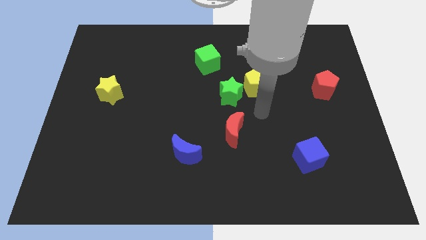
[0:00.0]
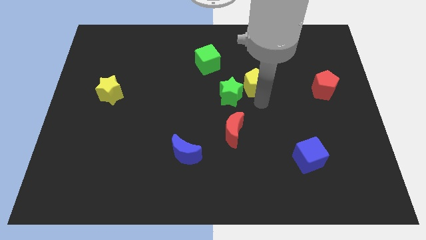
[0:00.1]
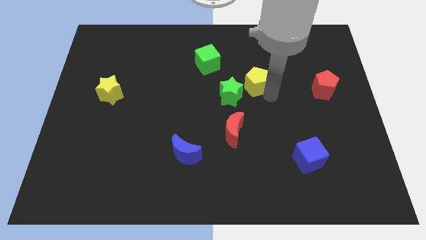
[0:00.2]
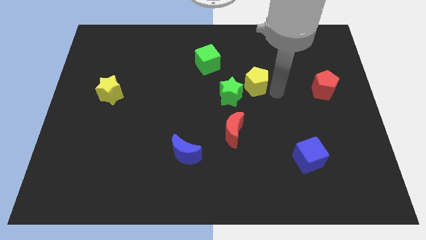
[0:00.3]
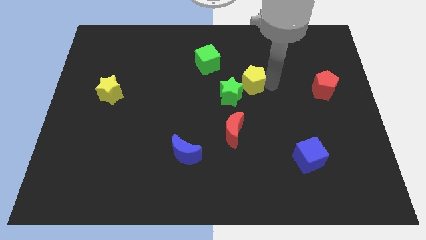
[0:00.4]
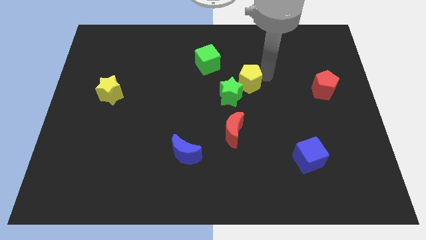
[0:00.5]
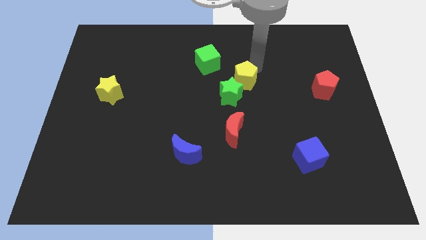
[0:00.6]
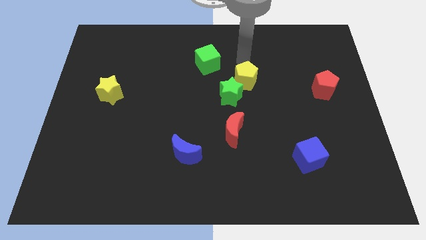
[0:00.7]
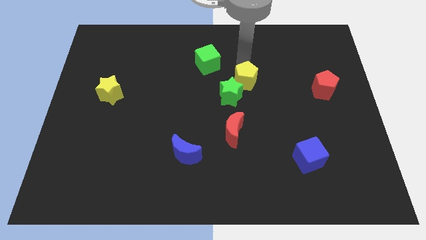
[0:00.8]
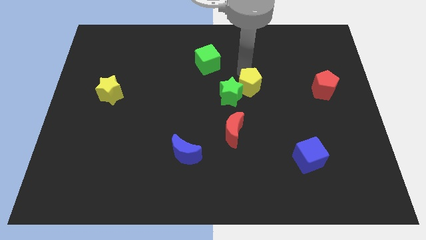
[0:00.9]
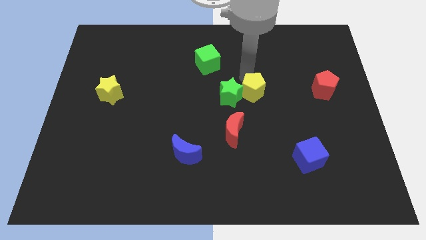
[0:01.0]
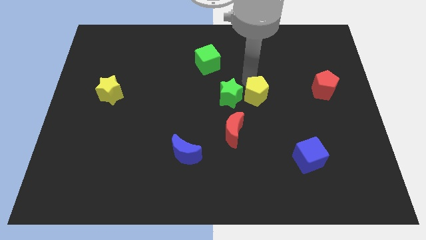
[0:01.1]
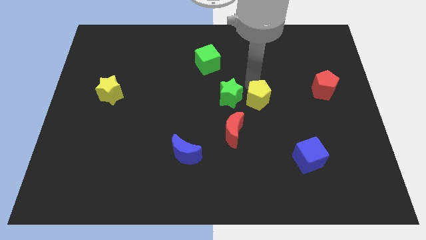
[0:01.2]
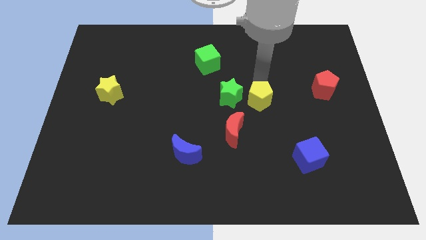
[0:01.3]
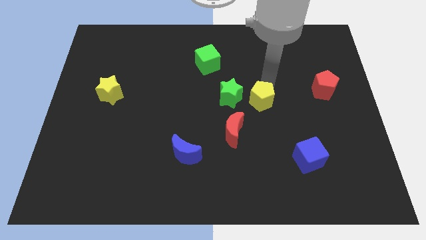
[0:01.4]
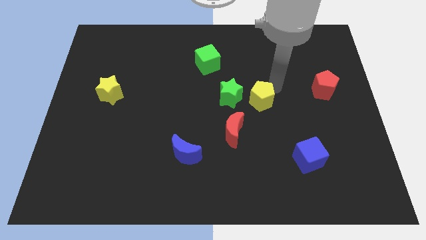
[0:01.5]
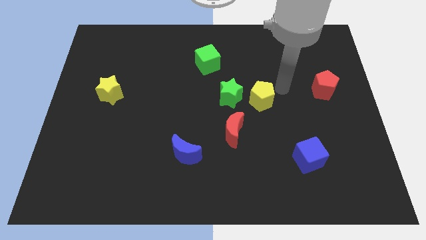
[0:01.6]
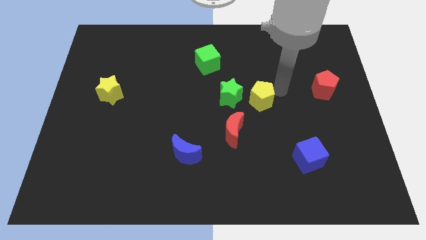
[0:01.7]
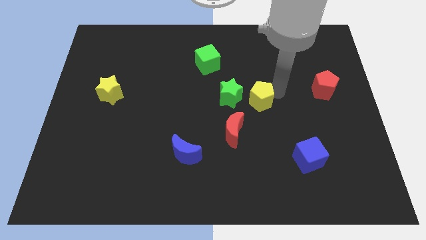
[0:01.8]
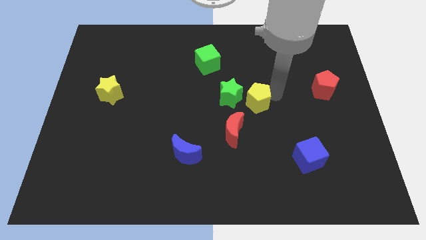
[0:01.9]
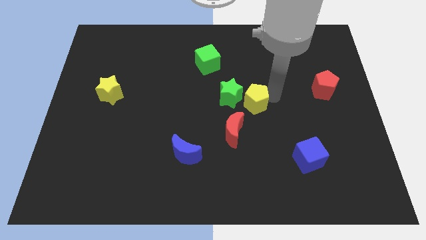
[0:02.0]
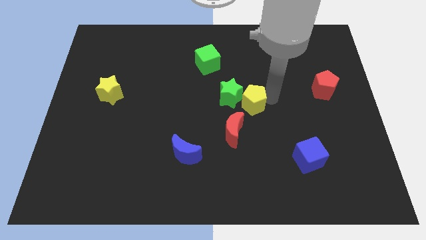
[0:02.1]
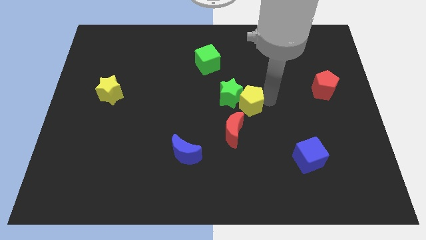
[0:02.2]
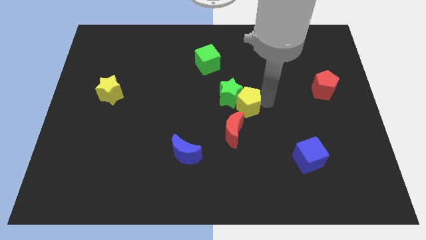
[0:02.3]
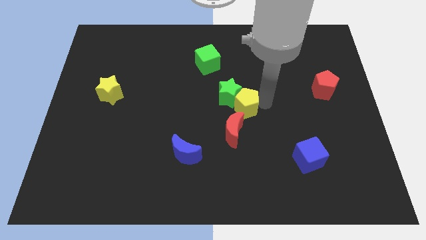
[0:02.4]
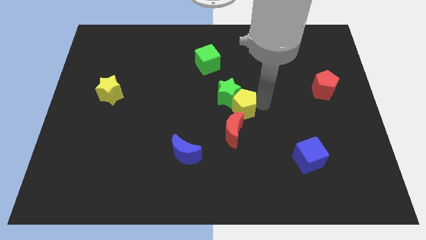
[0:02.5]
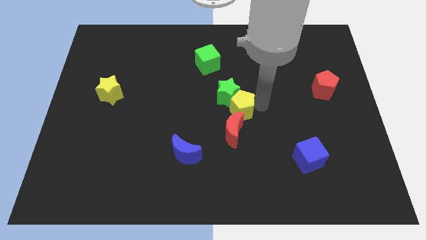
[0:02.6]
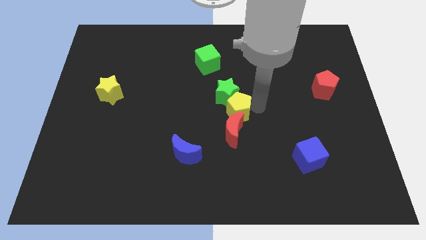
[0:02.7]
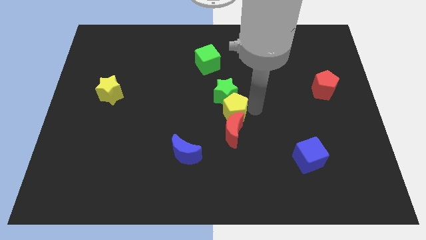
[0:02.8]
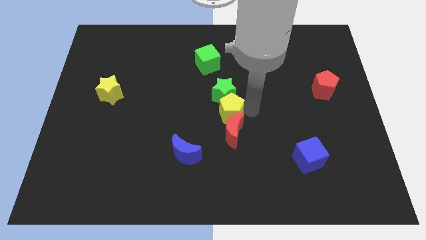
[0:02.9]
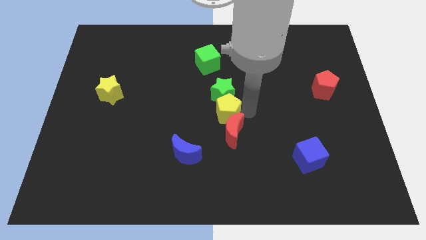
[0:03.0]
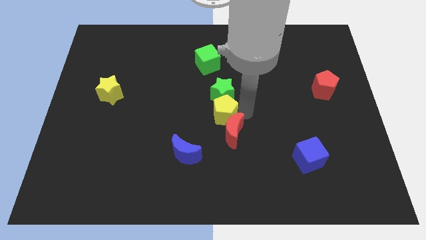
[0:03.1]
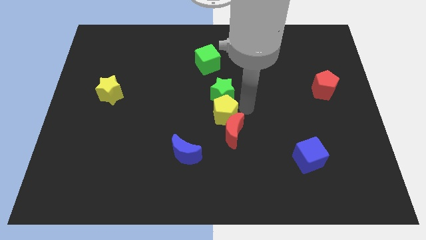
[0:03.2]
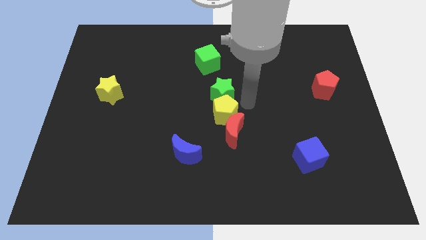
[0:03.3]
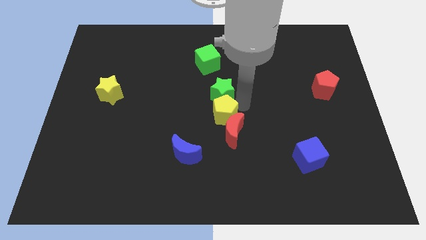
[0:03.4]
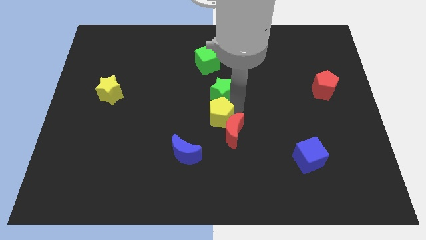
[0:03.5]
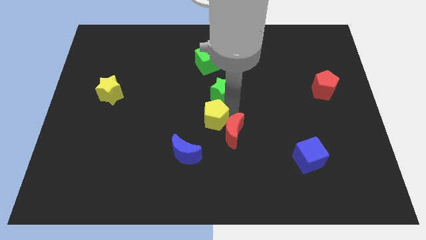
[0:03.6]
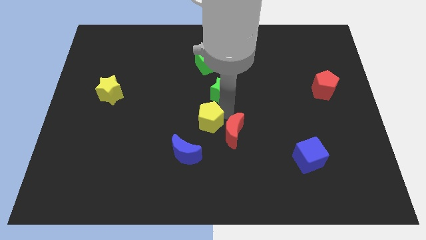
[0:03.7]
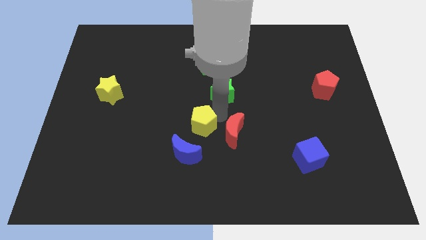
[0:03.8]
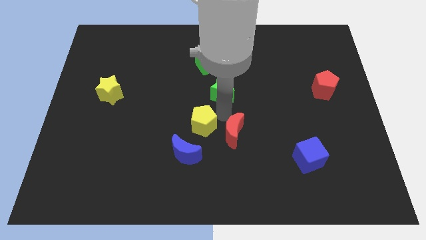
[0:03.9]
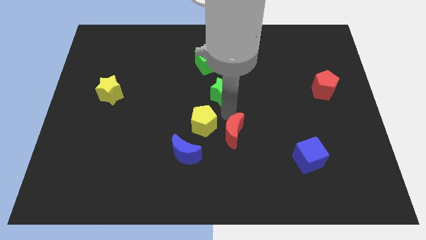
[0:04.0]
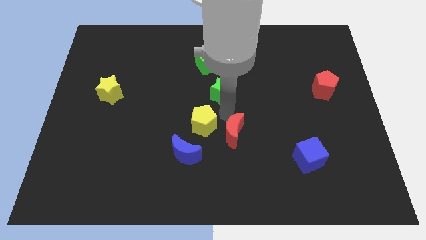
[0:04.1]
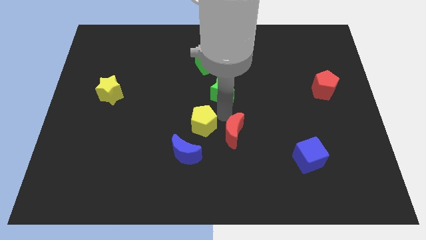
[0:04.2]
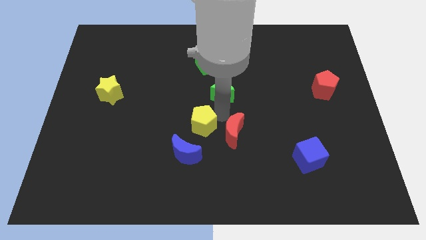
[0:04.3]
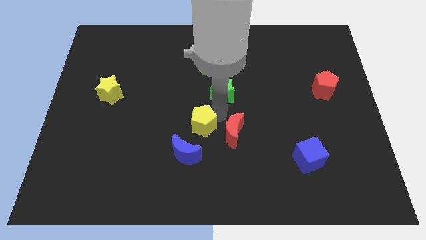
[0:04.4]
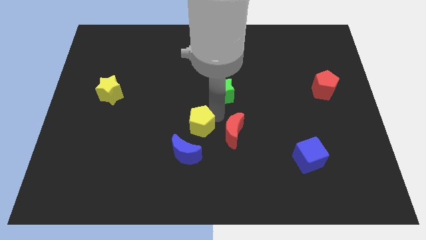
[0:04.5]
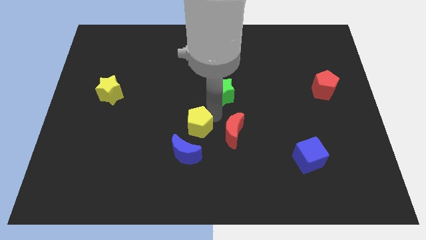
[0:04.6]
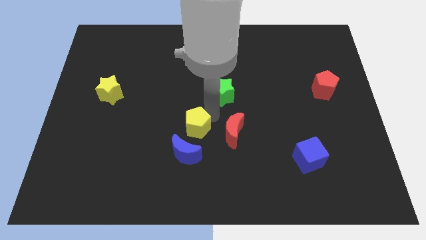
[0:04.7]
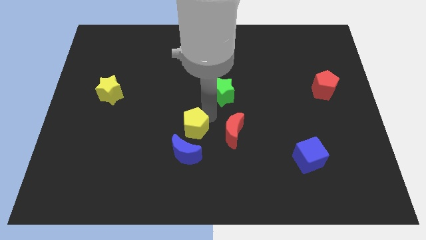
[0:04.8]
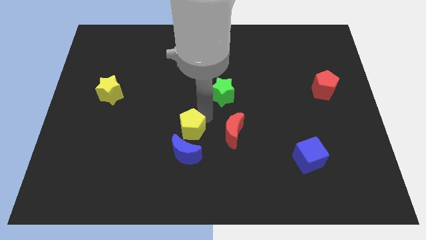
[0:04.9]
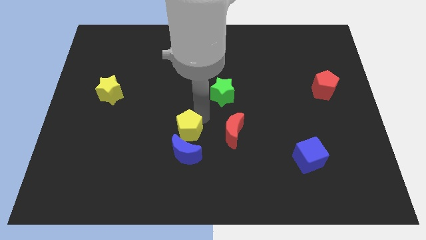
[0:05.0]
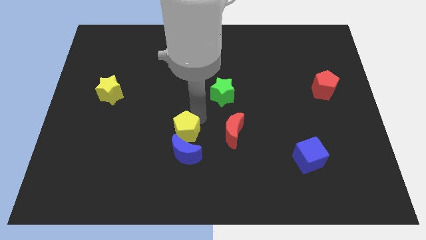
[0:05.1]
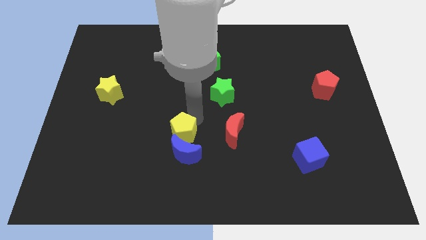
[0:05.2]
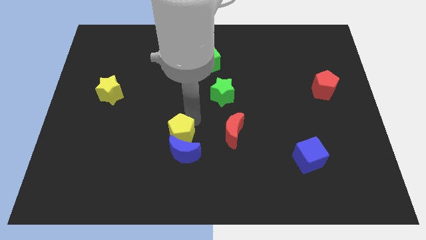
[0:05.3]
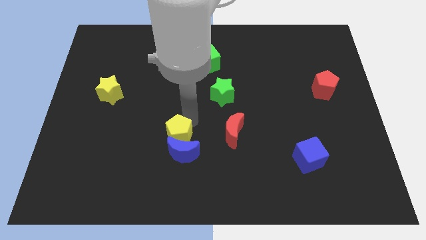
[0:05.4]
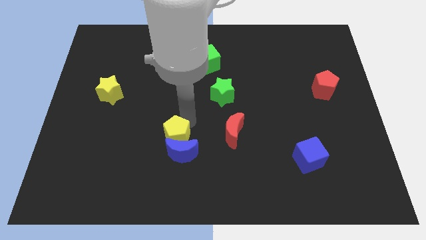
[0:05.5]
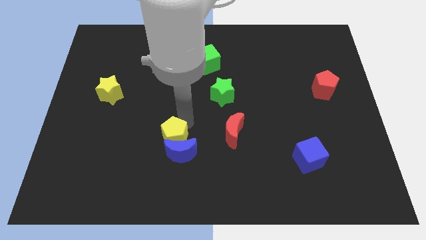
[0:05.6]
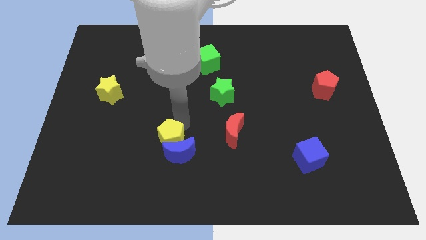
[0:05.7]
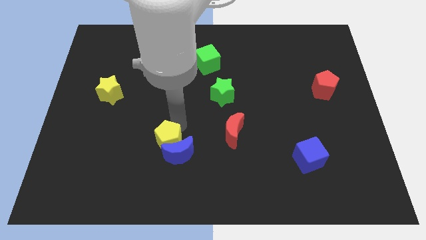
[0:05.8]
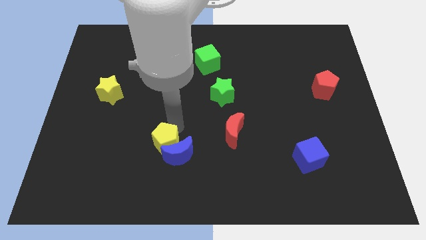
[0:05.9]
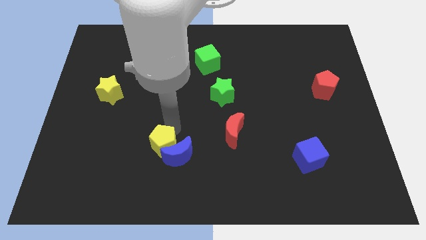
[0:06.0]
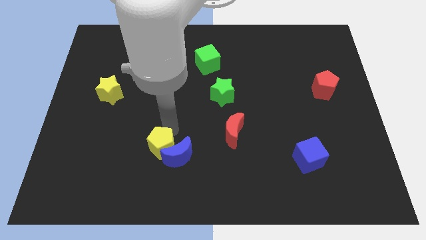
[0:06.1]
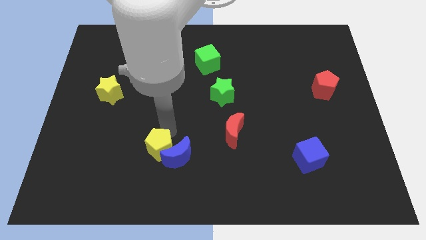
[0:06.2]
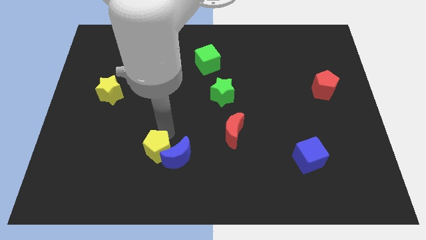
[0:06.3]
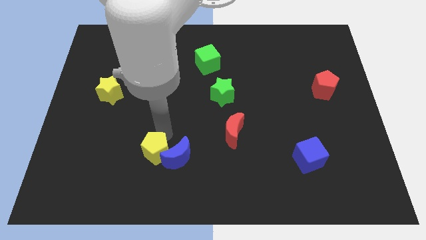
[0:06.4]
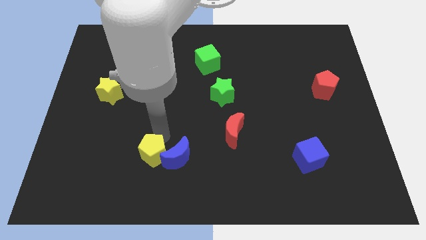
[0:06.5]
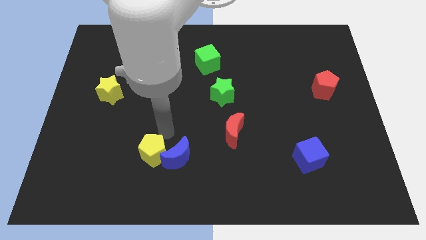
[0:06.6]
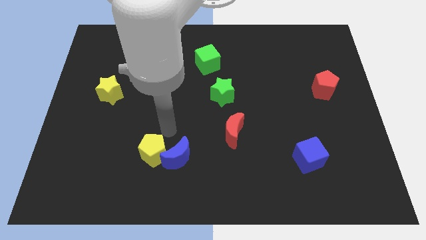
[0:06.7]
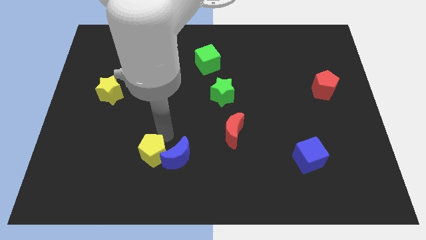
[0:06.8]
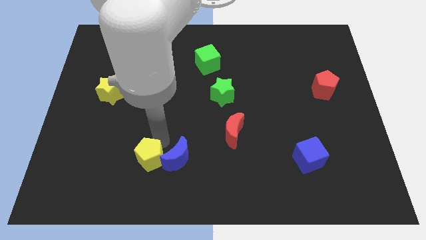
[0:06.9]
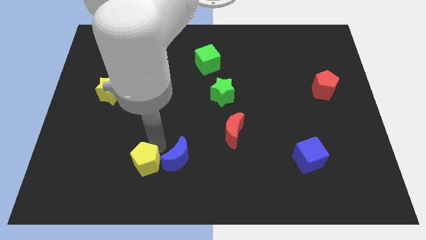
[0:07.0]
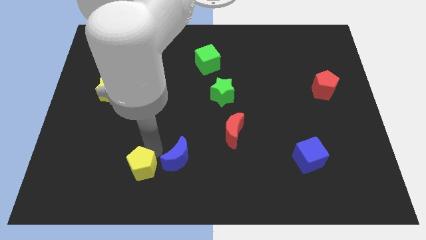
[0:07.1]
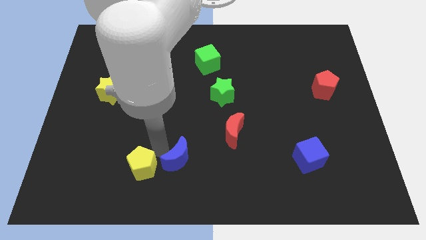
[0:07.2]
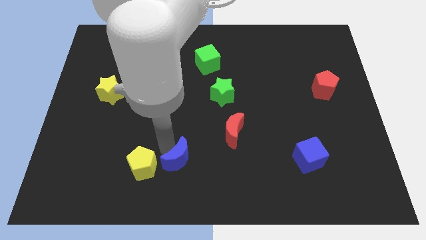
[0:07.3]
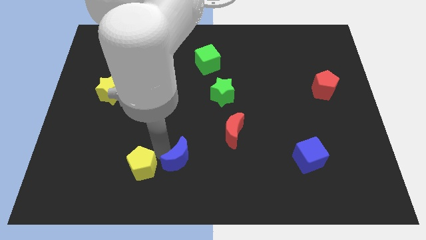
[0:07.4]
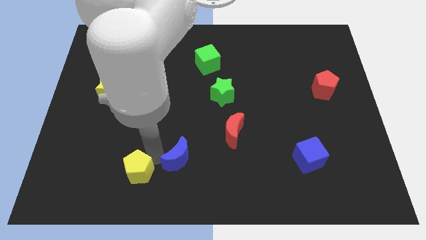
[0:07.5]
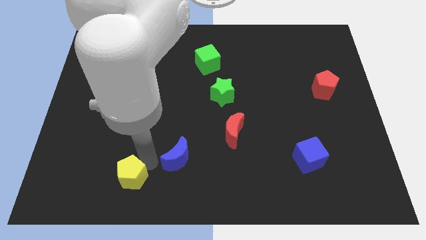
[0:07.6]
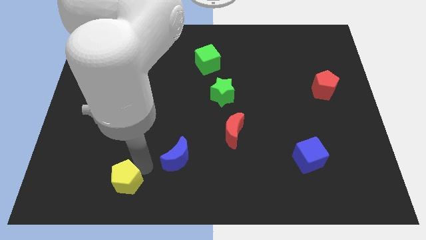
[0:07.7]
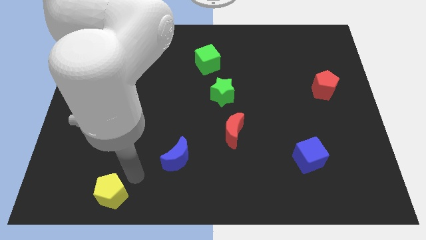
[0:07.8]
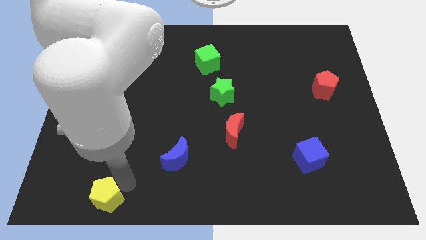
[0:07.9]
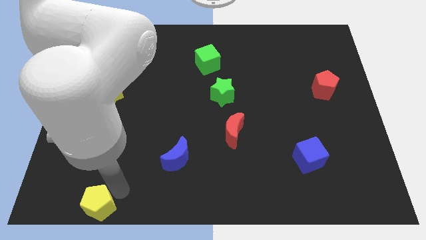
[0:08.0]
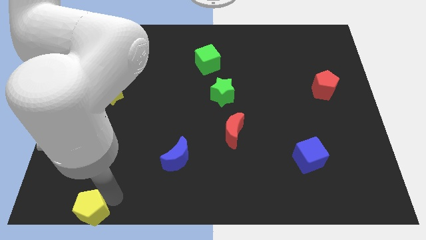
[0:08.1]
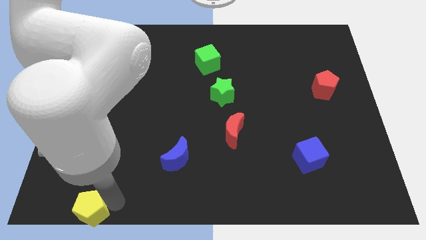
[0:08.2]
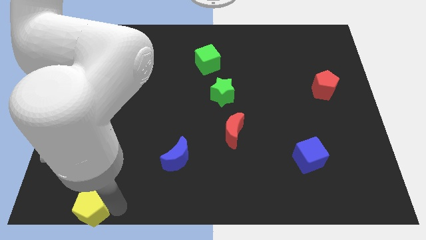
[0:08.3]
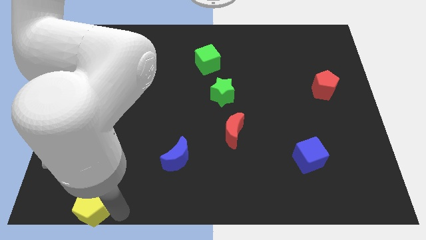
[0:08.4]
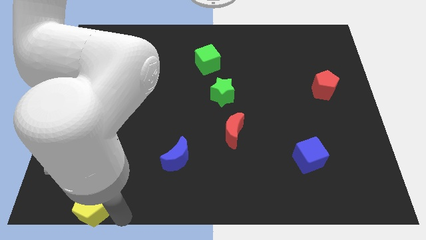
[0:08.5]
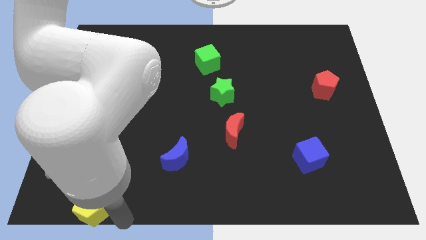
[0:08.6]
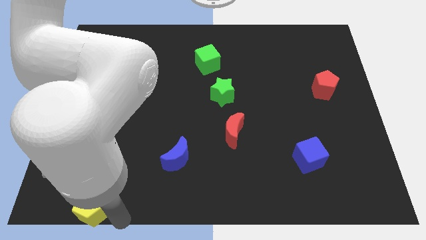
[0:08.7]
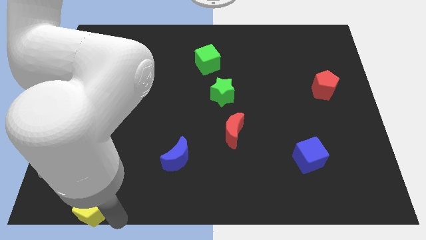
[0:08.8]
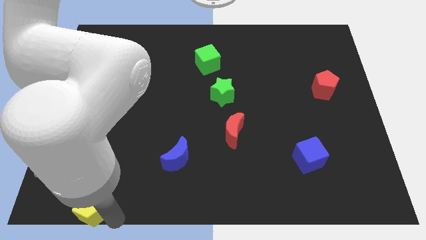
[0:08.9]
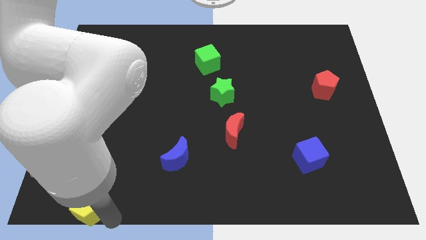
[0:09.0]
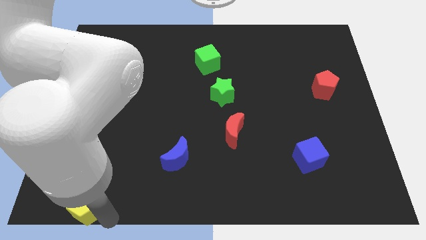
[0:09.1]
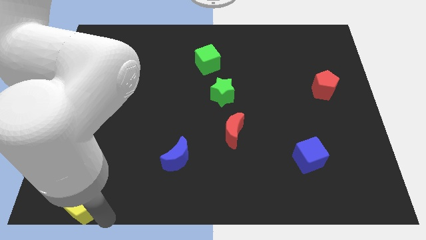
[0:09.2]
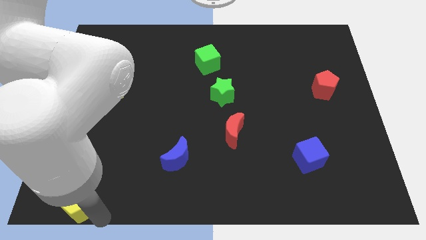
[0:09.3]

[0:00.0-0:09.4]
push the yellow pentagon to the bottom left
